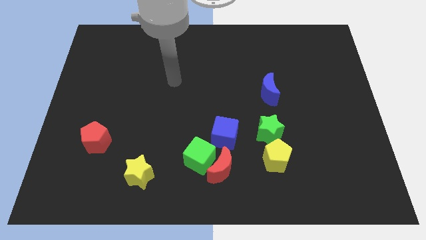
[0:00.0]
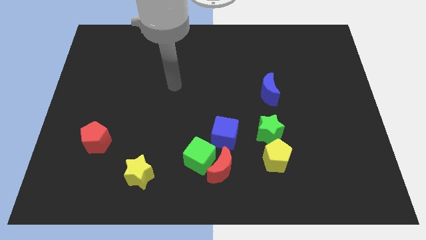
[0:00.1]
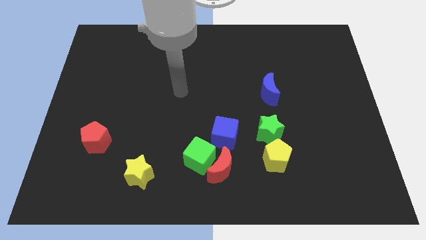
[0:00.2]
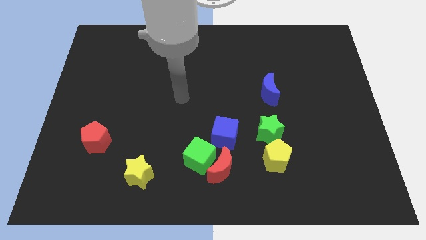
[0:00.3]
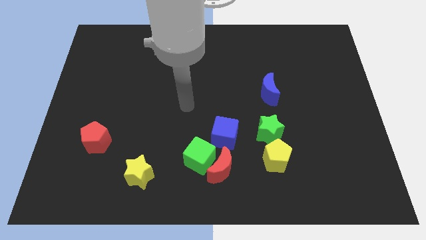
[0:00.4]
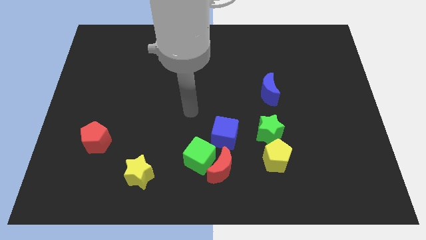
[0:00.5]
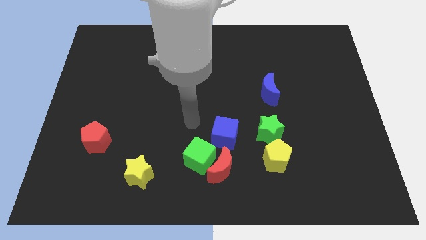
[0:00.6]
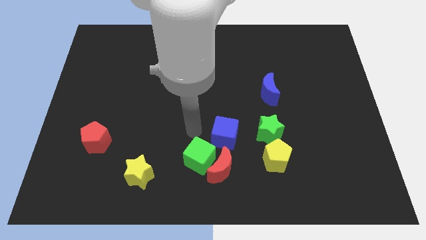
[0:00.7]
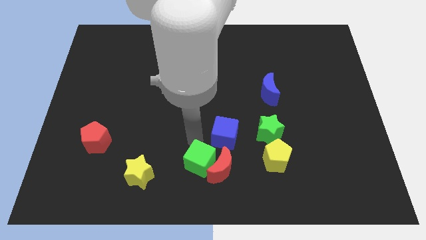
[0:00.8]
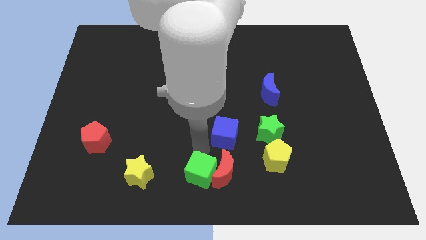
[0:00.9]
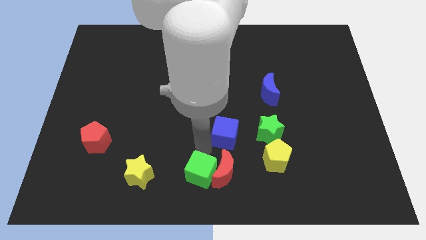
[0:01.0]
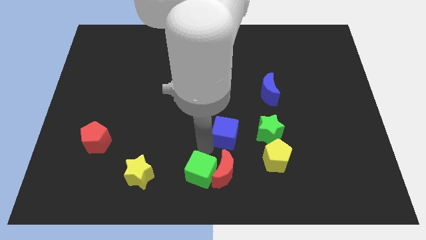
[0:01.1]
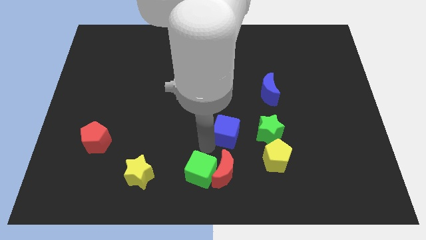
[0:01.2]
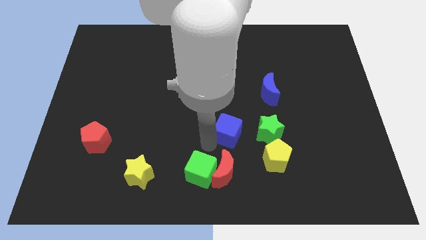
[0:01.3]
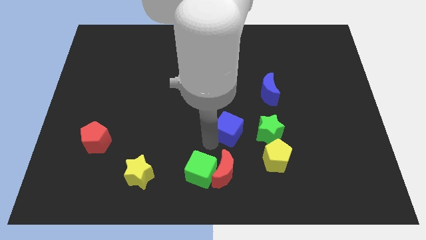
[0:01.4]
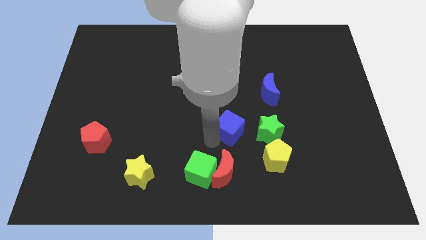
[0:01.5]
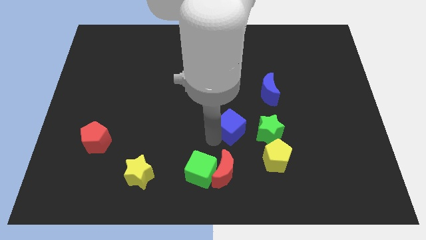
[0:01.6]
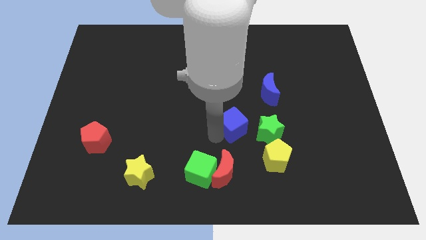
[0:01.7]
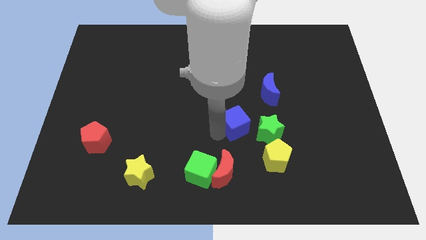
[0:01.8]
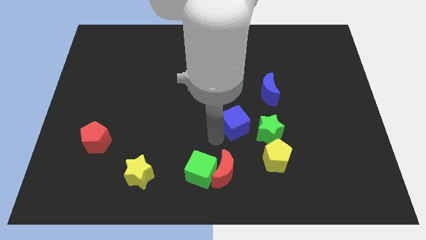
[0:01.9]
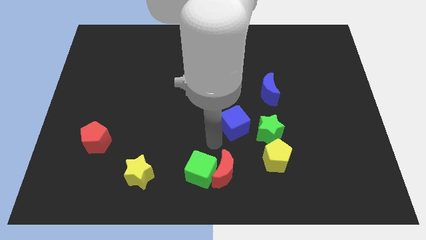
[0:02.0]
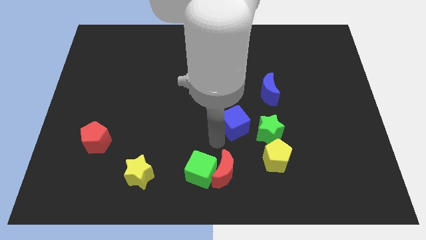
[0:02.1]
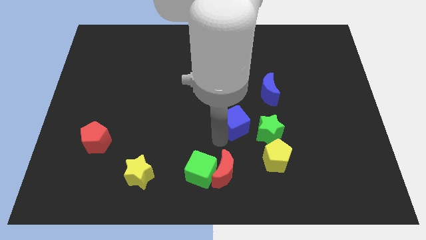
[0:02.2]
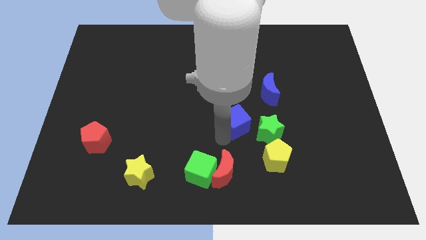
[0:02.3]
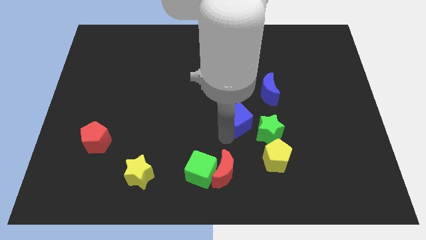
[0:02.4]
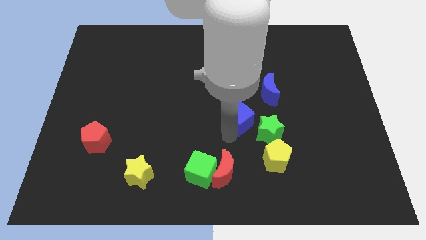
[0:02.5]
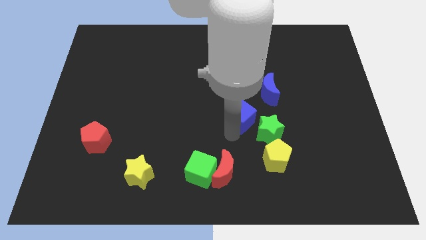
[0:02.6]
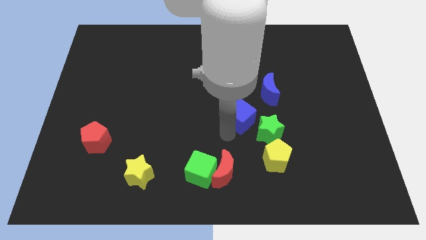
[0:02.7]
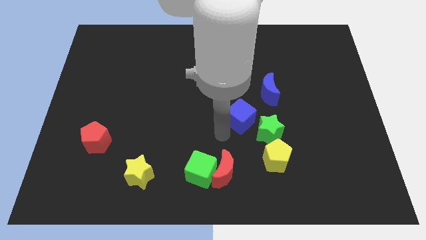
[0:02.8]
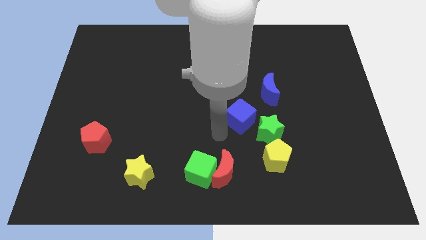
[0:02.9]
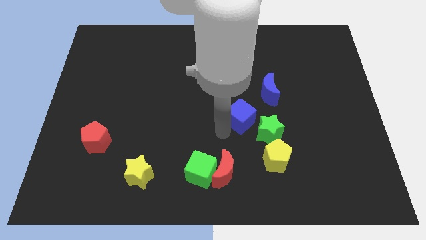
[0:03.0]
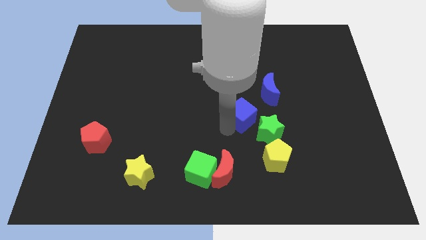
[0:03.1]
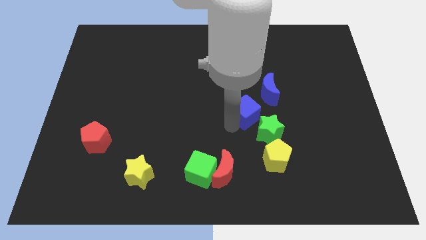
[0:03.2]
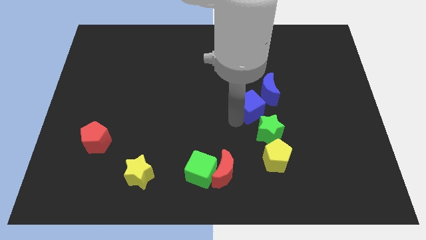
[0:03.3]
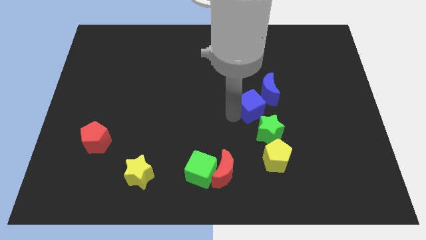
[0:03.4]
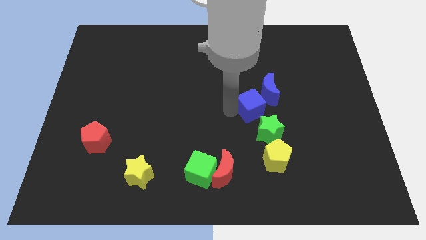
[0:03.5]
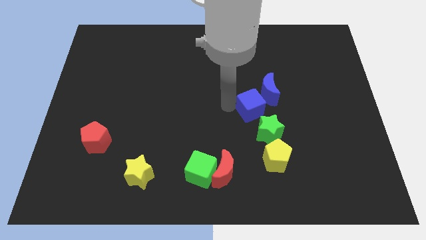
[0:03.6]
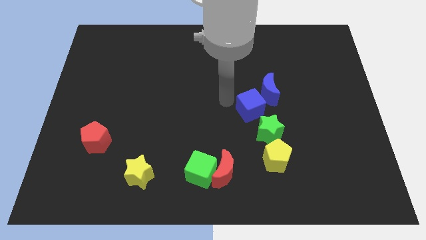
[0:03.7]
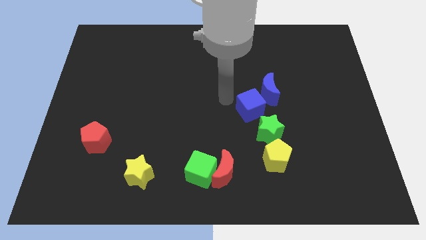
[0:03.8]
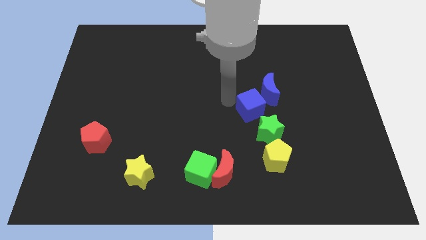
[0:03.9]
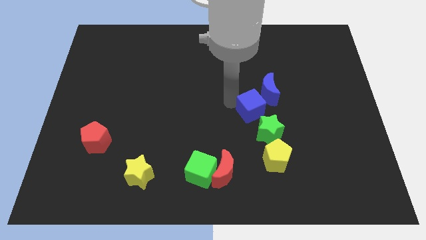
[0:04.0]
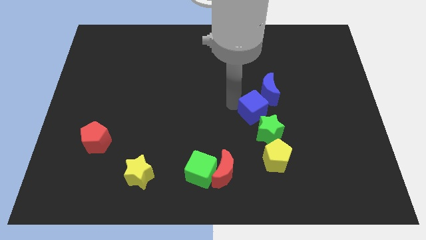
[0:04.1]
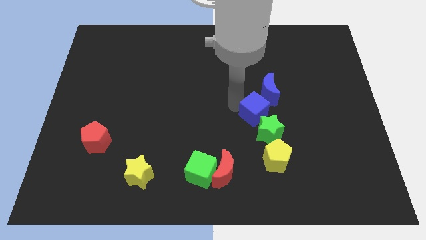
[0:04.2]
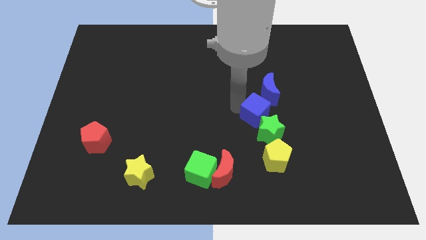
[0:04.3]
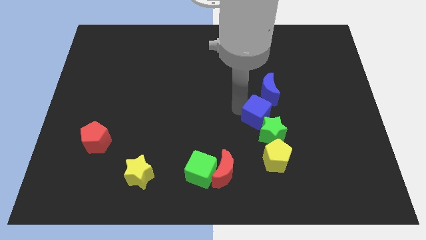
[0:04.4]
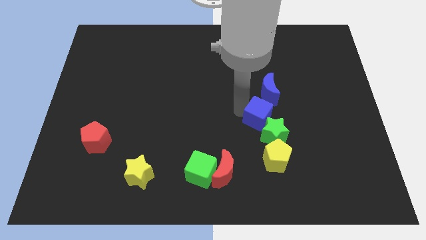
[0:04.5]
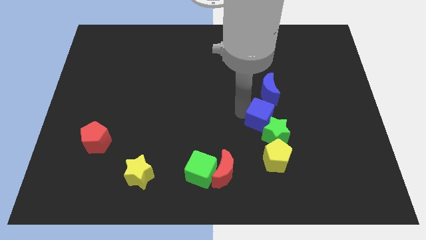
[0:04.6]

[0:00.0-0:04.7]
slightly push the blue cube to the right

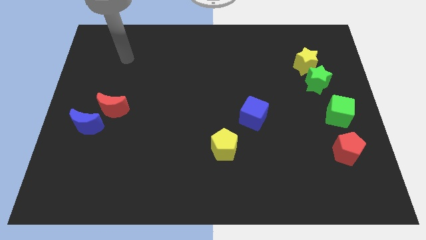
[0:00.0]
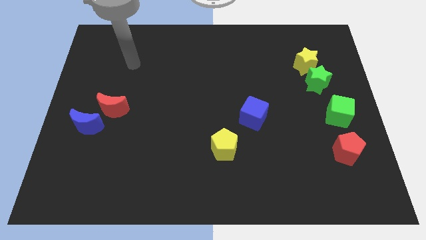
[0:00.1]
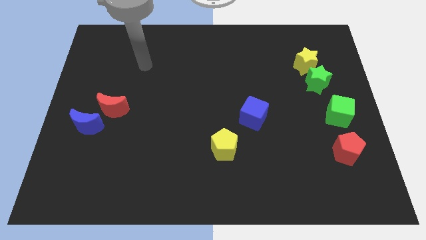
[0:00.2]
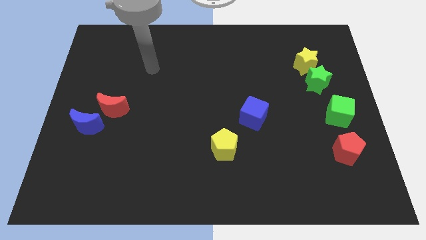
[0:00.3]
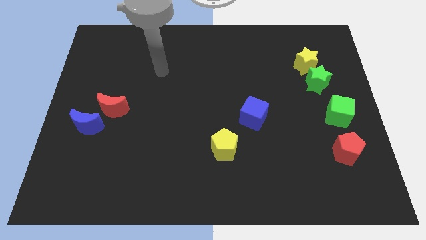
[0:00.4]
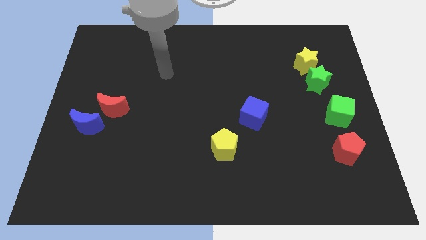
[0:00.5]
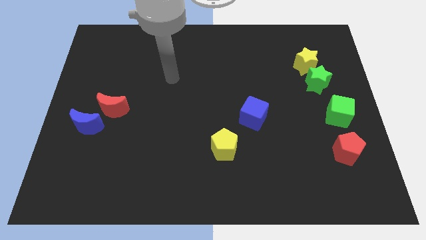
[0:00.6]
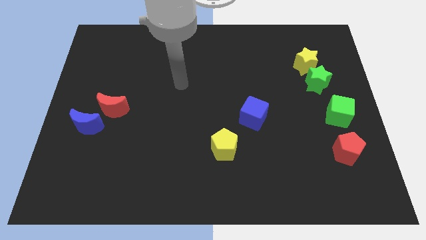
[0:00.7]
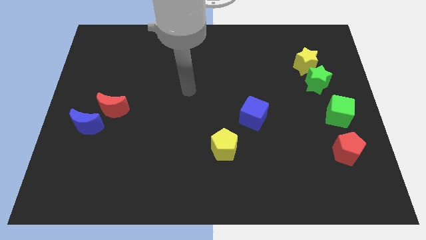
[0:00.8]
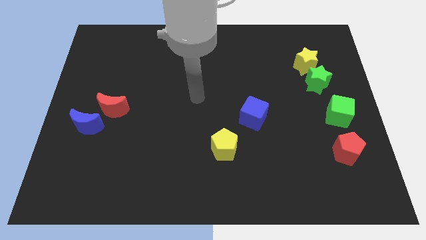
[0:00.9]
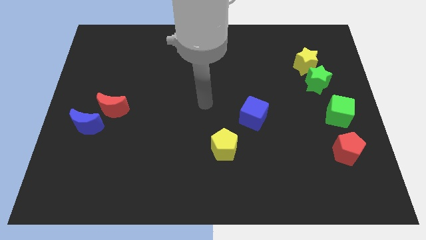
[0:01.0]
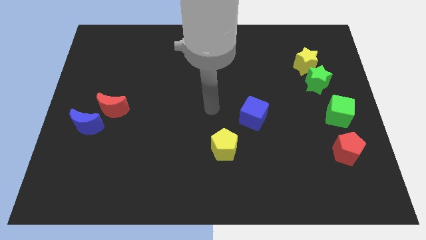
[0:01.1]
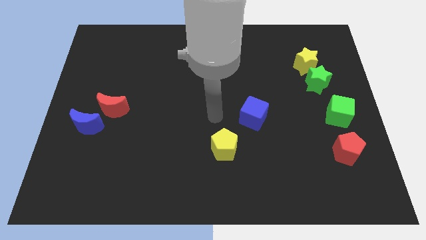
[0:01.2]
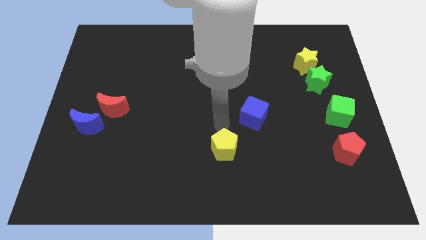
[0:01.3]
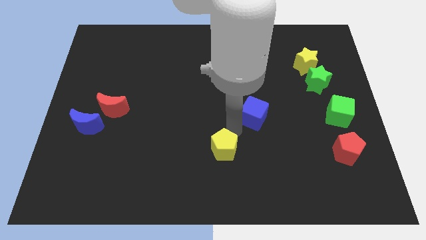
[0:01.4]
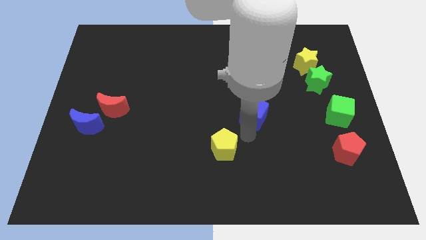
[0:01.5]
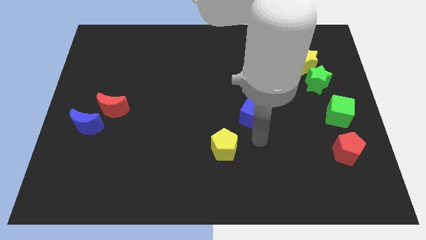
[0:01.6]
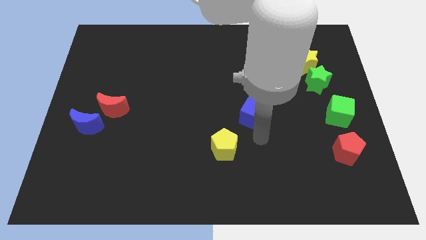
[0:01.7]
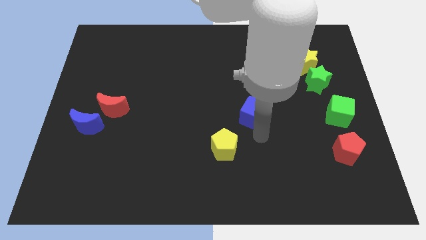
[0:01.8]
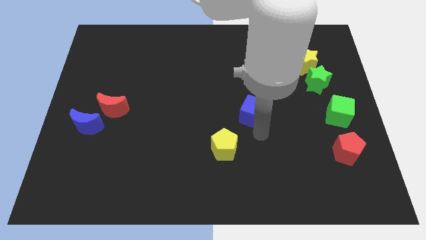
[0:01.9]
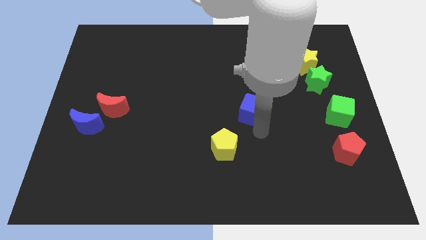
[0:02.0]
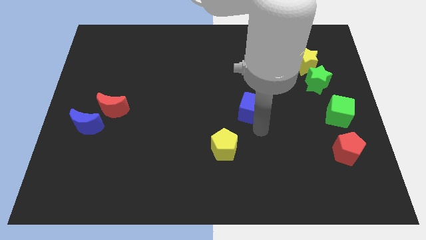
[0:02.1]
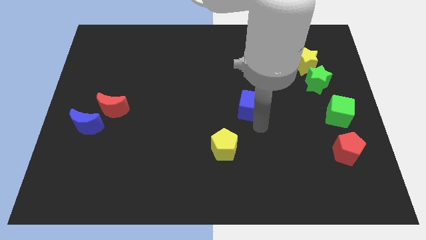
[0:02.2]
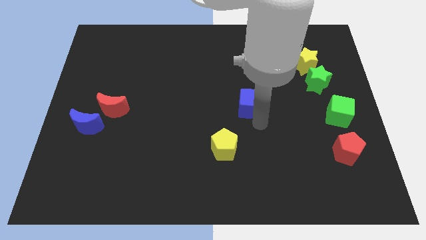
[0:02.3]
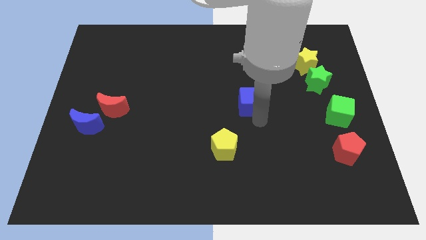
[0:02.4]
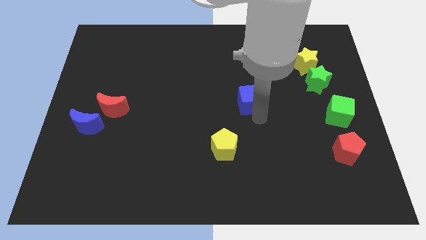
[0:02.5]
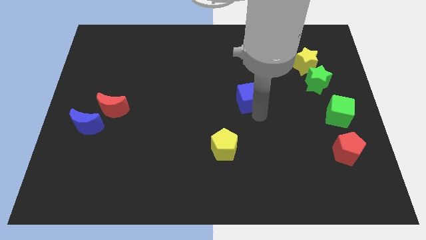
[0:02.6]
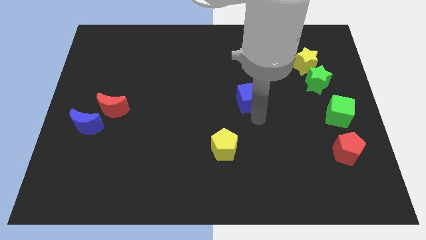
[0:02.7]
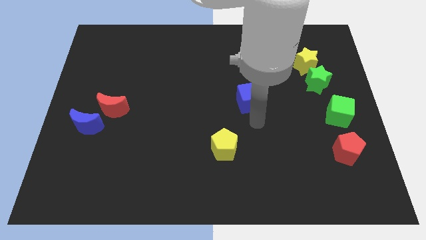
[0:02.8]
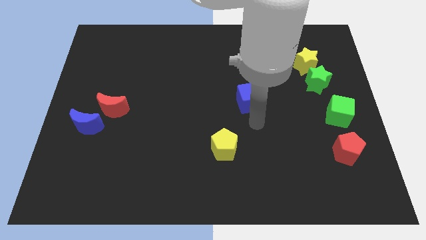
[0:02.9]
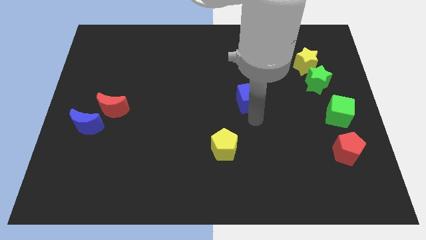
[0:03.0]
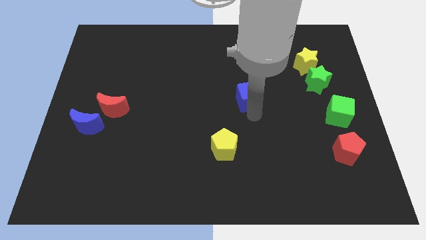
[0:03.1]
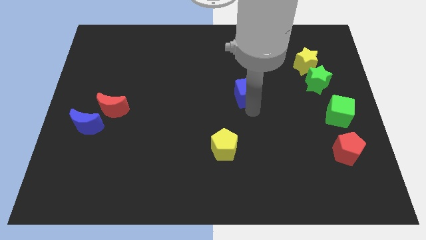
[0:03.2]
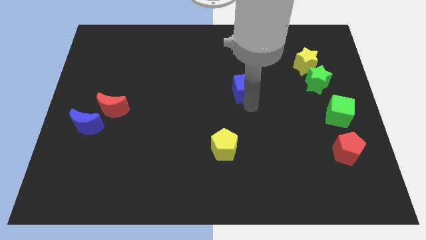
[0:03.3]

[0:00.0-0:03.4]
slightly move the blue cube up
